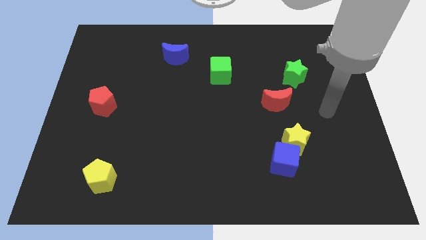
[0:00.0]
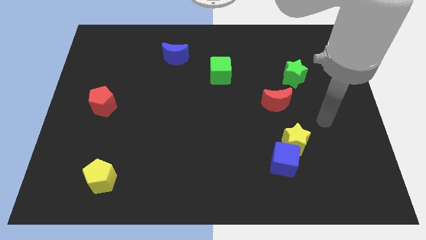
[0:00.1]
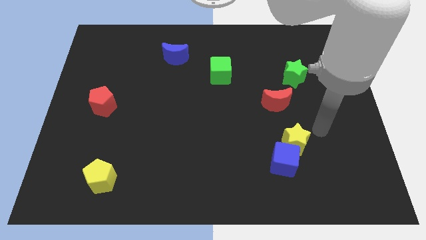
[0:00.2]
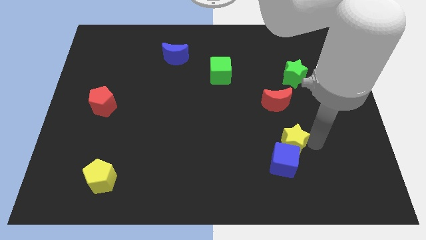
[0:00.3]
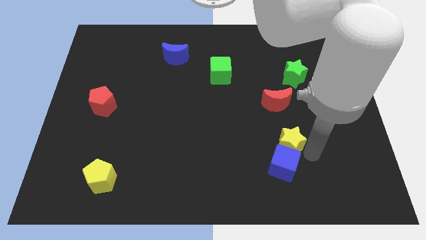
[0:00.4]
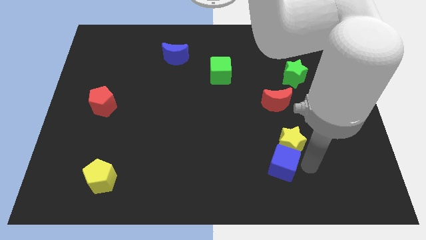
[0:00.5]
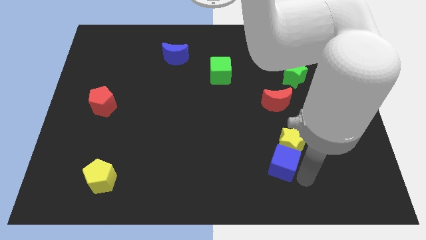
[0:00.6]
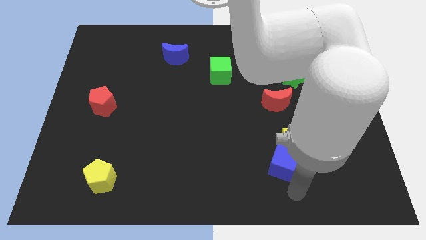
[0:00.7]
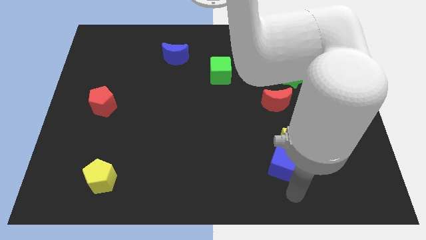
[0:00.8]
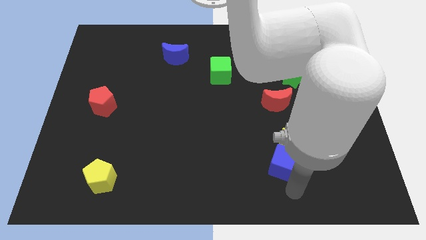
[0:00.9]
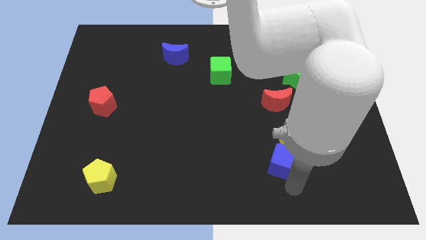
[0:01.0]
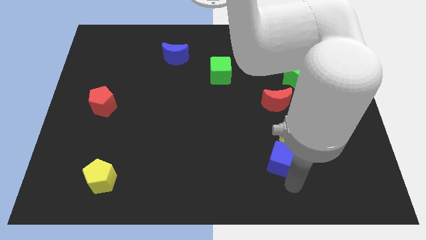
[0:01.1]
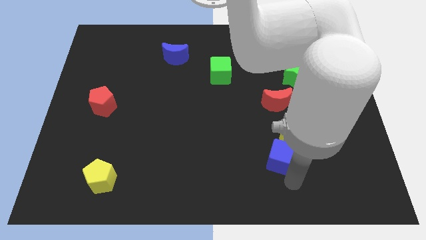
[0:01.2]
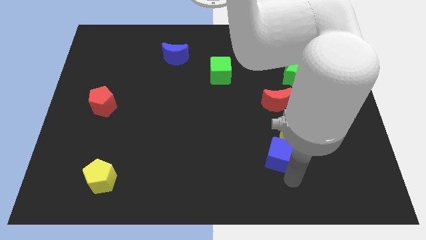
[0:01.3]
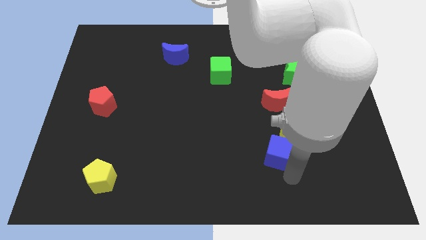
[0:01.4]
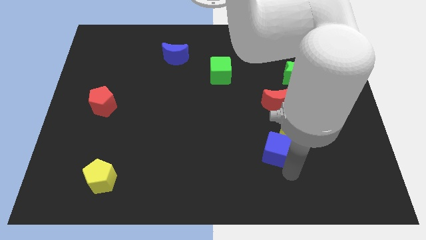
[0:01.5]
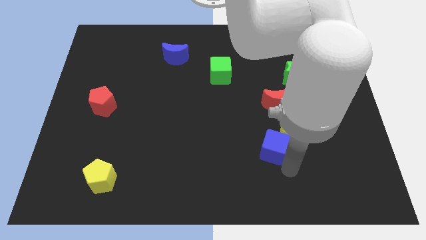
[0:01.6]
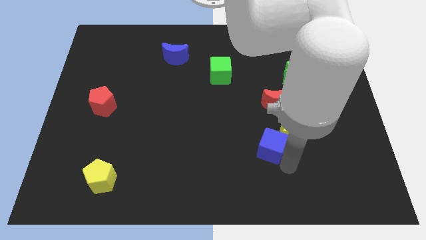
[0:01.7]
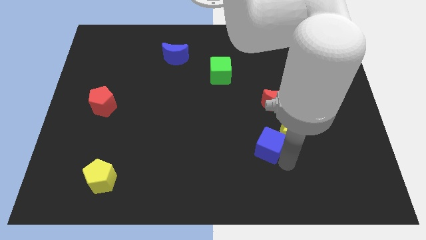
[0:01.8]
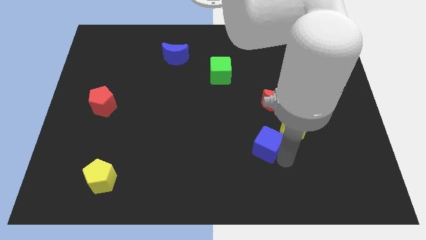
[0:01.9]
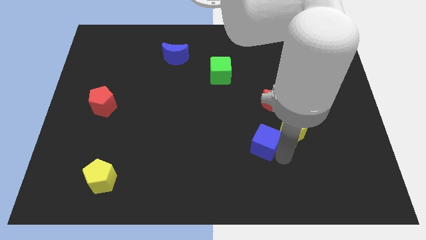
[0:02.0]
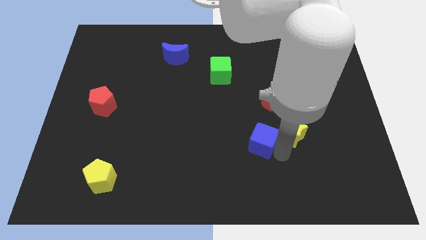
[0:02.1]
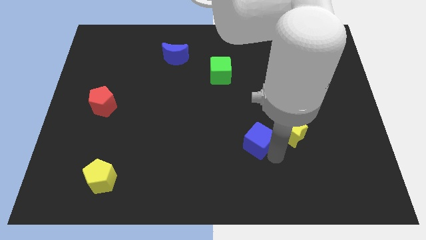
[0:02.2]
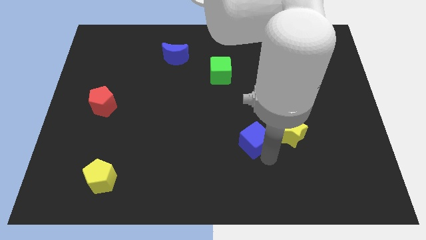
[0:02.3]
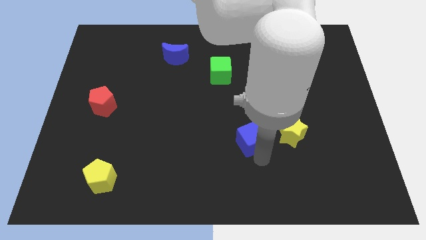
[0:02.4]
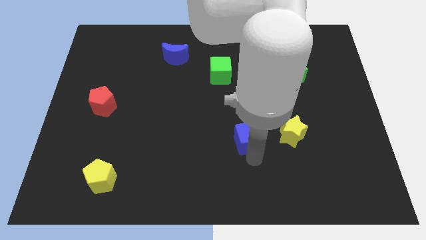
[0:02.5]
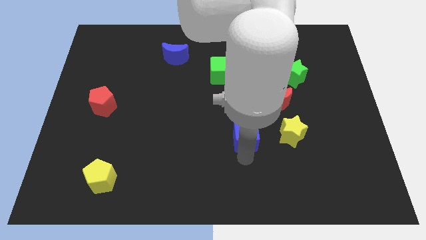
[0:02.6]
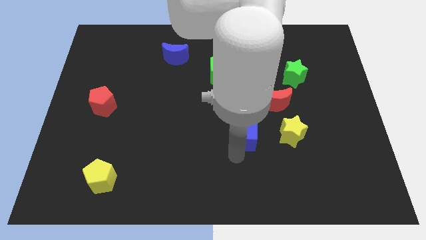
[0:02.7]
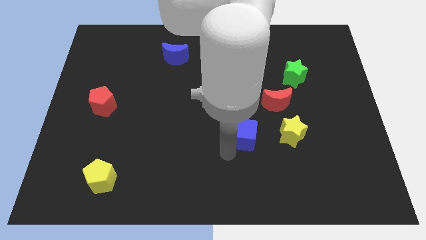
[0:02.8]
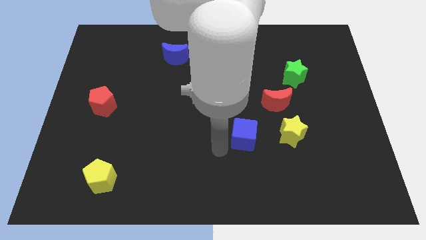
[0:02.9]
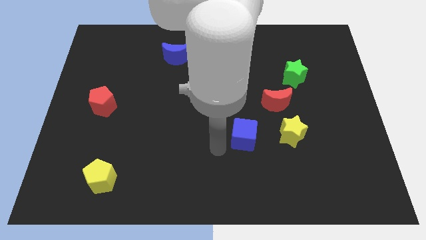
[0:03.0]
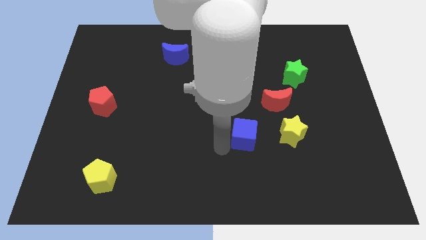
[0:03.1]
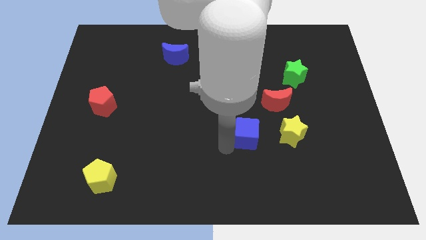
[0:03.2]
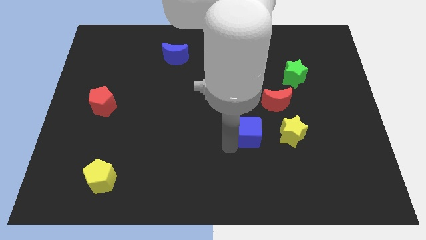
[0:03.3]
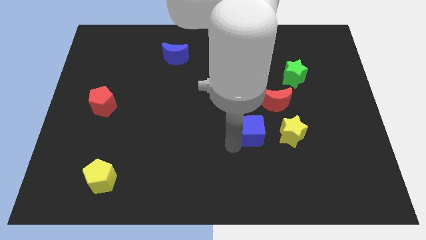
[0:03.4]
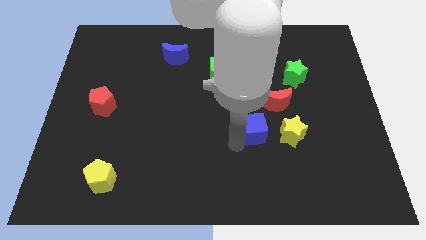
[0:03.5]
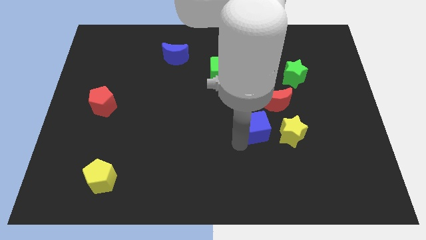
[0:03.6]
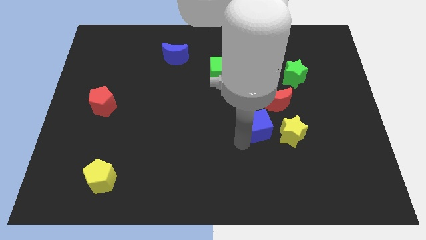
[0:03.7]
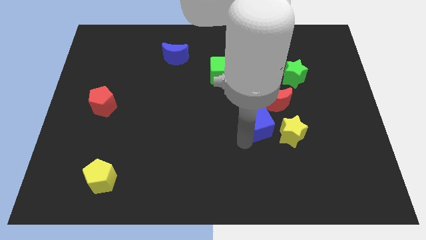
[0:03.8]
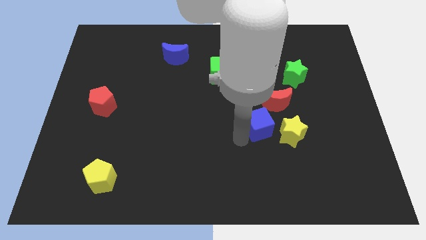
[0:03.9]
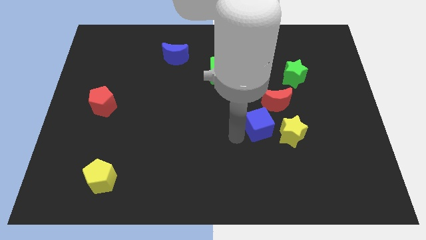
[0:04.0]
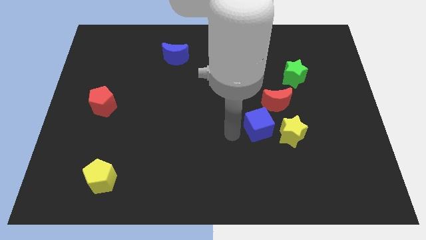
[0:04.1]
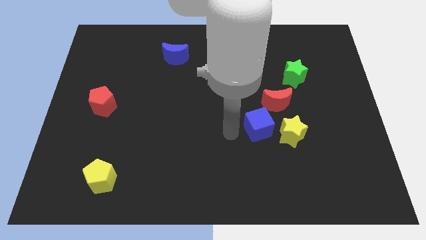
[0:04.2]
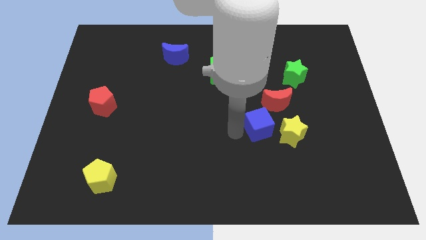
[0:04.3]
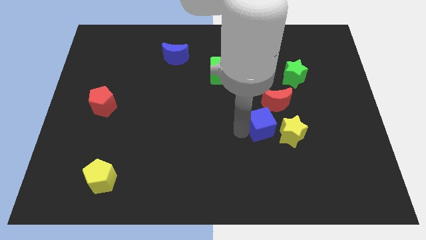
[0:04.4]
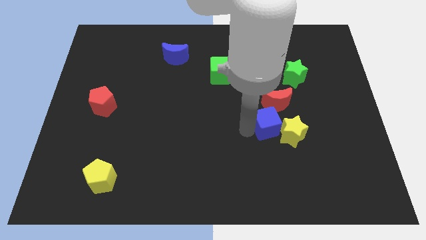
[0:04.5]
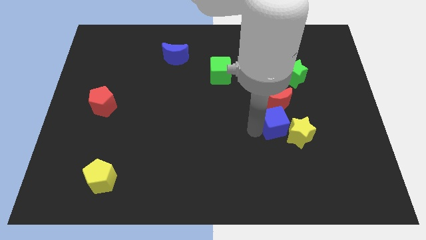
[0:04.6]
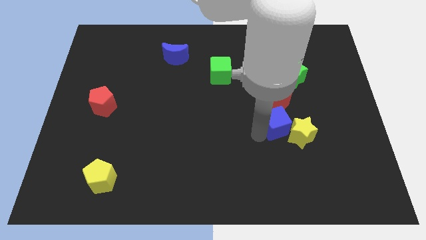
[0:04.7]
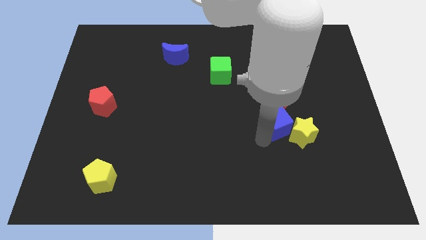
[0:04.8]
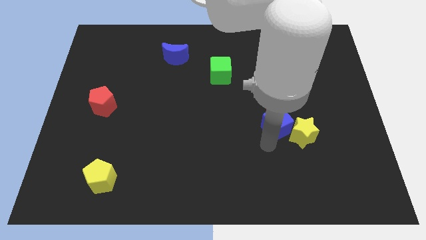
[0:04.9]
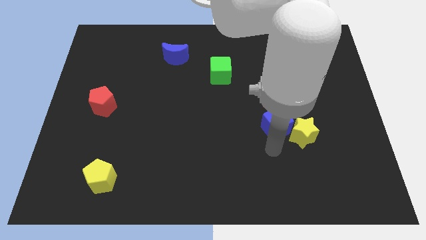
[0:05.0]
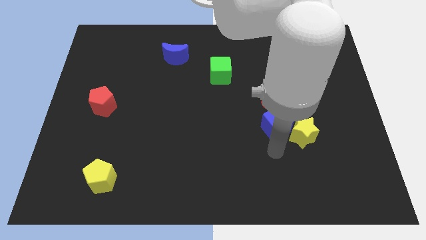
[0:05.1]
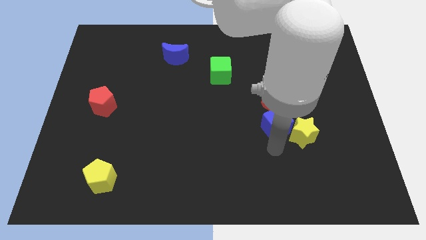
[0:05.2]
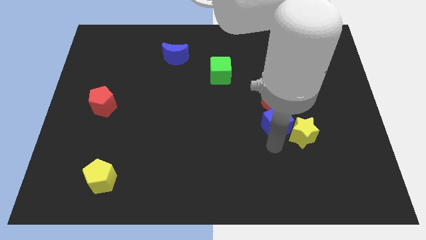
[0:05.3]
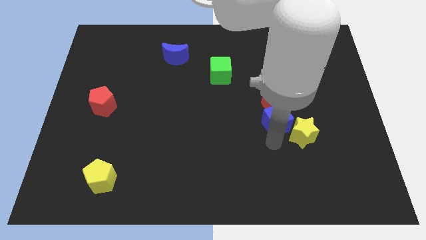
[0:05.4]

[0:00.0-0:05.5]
push the blue cube close to the red moon

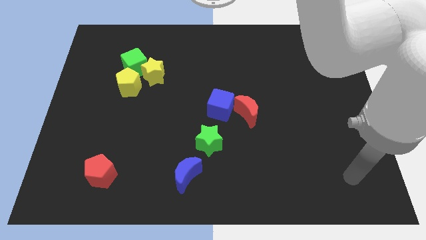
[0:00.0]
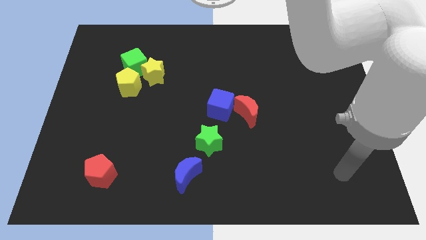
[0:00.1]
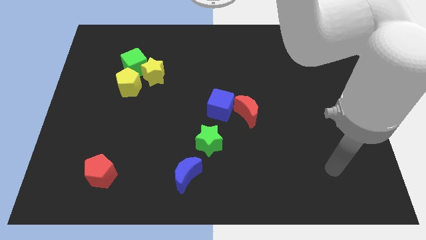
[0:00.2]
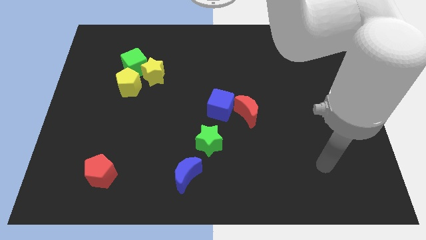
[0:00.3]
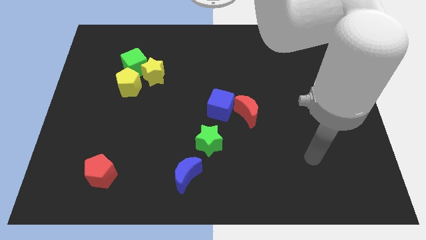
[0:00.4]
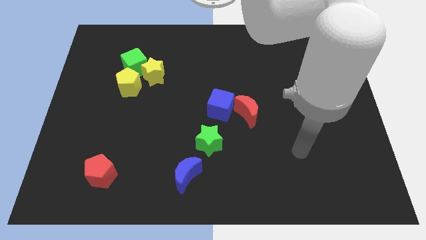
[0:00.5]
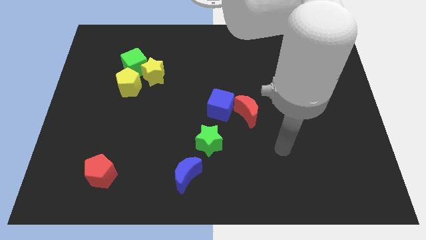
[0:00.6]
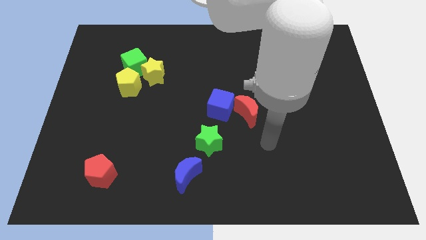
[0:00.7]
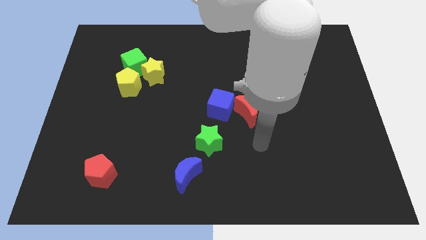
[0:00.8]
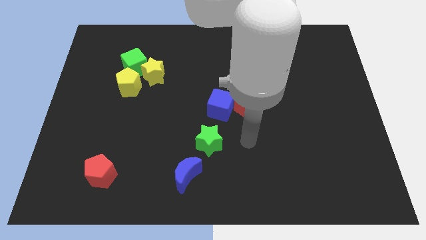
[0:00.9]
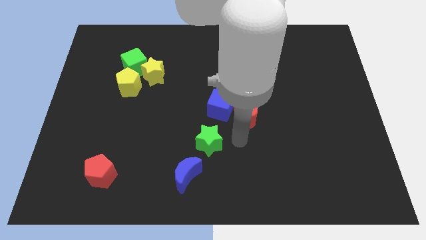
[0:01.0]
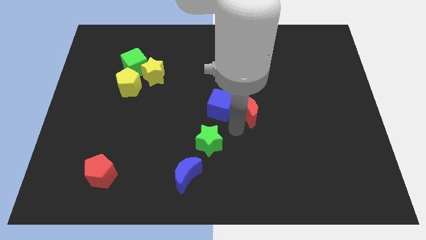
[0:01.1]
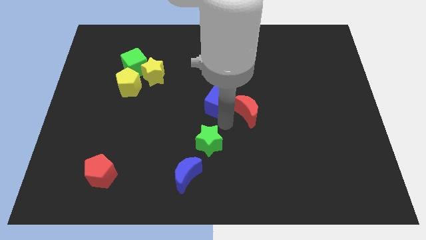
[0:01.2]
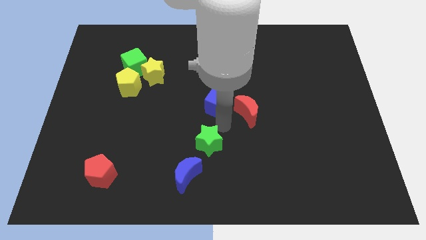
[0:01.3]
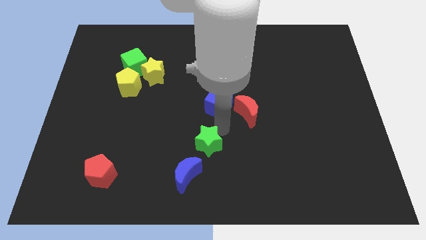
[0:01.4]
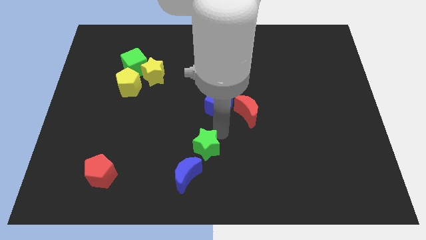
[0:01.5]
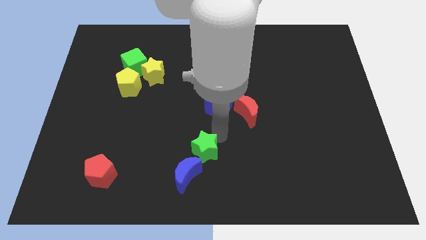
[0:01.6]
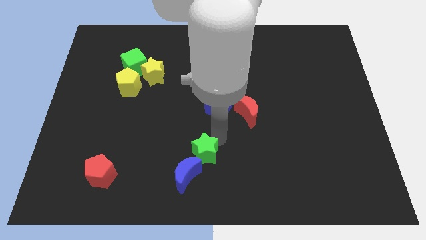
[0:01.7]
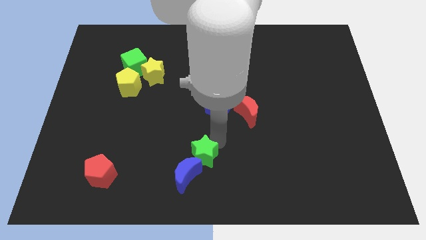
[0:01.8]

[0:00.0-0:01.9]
move the green star next to the blue moon

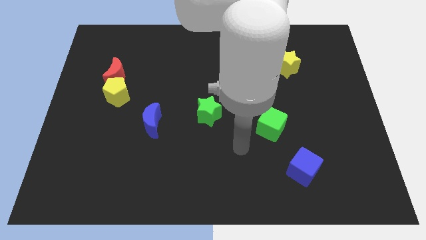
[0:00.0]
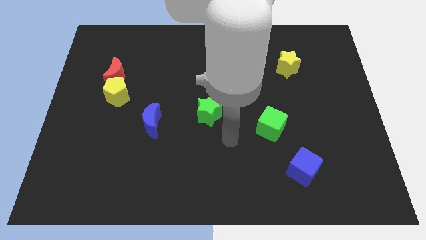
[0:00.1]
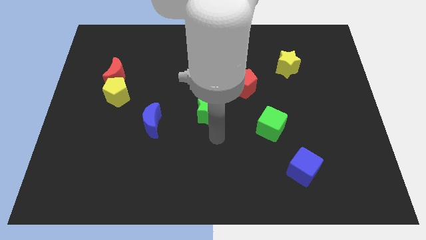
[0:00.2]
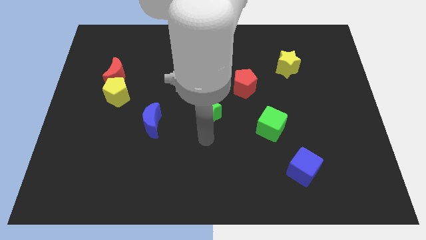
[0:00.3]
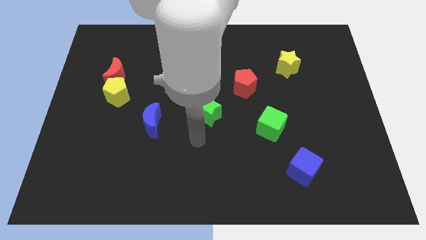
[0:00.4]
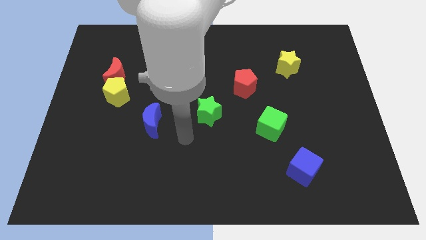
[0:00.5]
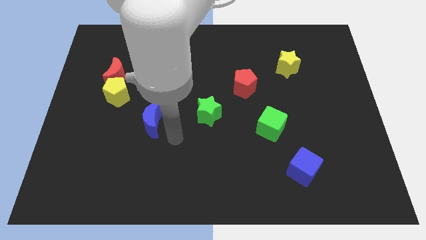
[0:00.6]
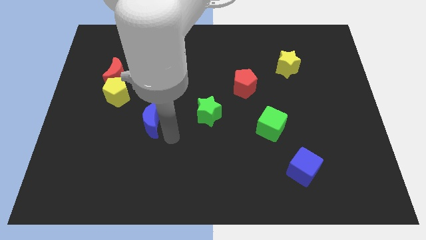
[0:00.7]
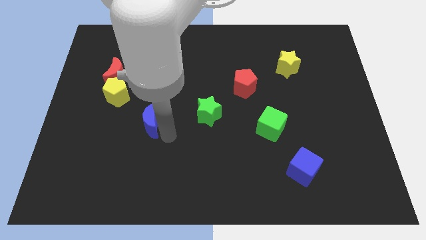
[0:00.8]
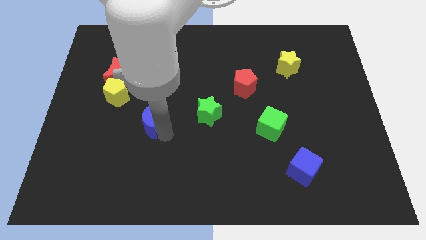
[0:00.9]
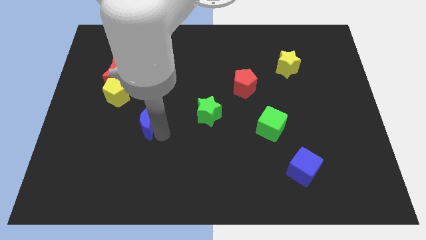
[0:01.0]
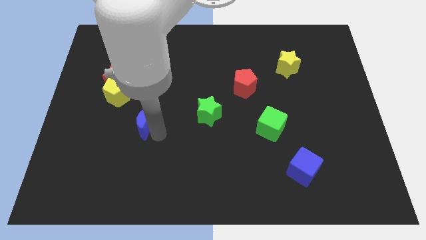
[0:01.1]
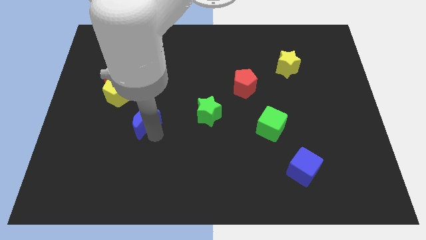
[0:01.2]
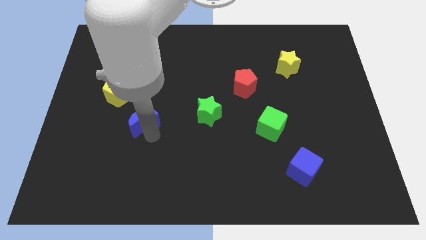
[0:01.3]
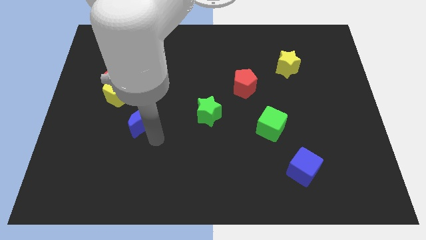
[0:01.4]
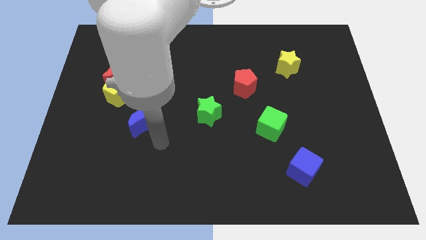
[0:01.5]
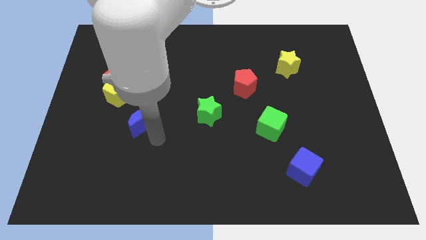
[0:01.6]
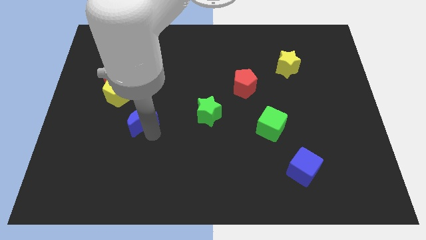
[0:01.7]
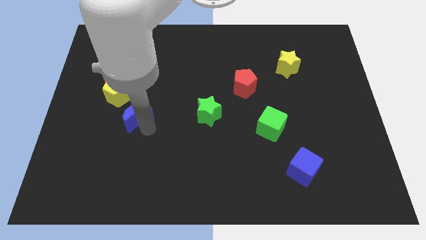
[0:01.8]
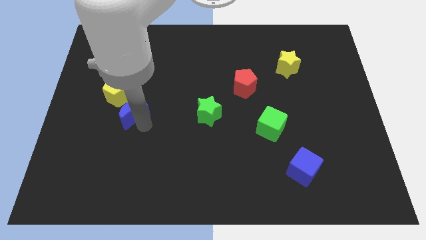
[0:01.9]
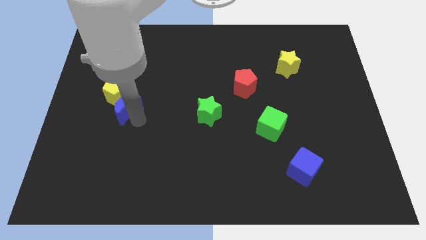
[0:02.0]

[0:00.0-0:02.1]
move the blue moon next to the yellow pentagon
